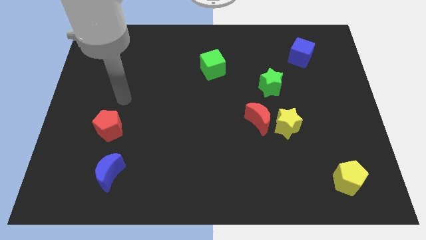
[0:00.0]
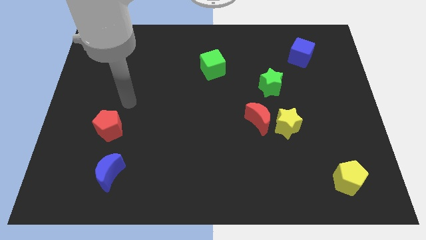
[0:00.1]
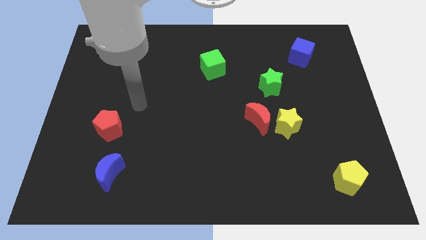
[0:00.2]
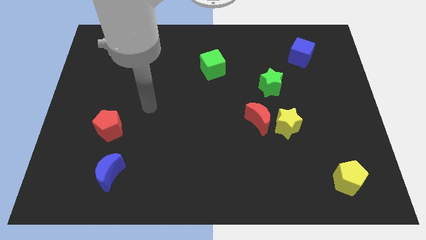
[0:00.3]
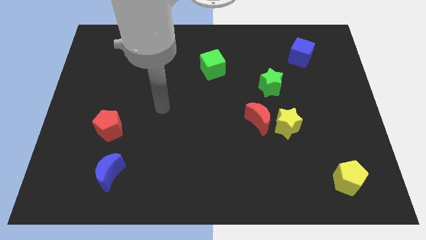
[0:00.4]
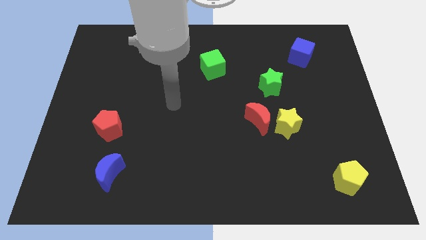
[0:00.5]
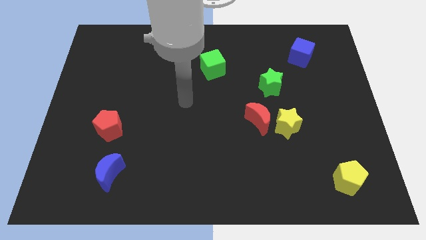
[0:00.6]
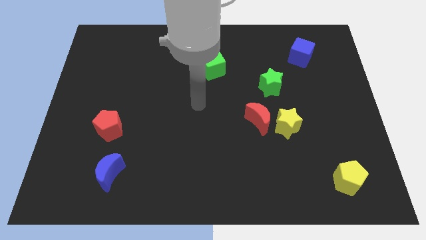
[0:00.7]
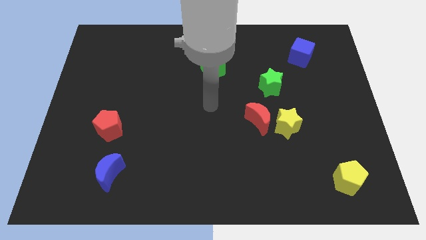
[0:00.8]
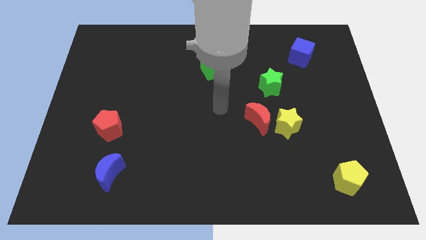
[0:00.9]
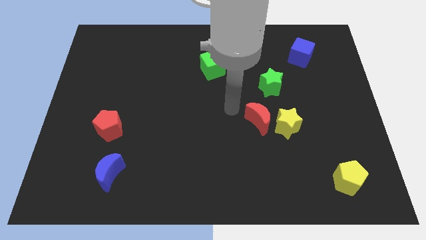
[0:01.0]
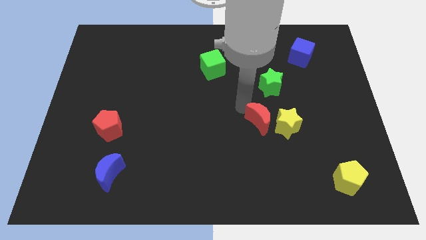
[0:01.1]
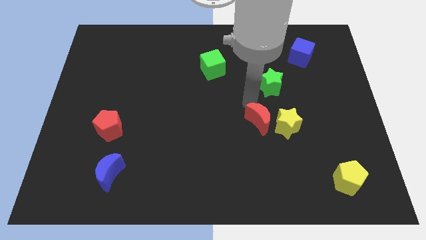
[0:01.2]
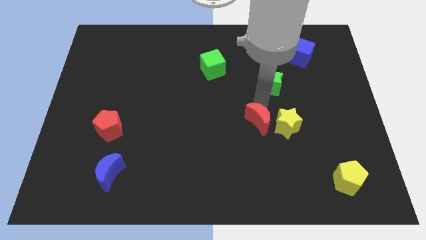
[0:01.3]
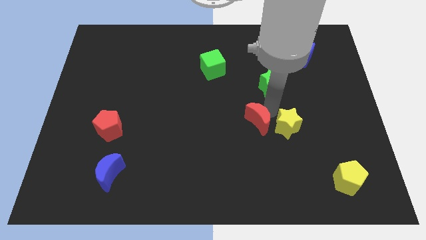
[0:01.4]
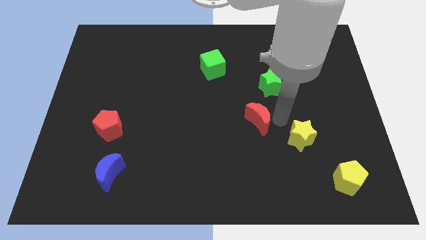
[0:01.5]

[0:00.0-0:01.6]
move the red moon away from the yellow star

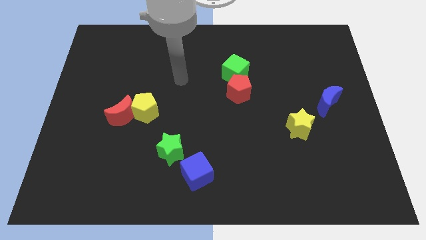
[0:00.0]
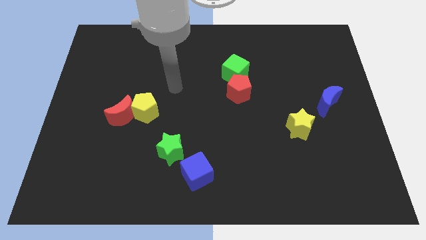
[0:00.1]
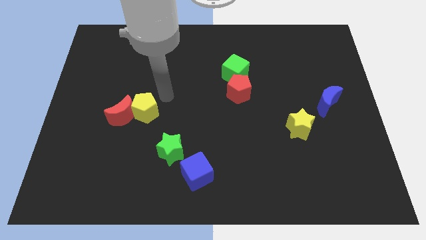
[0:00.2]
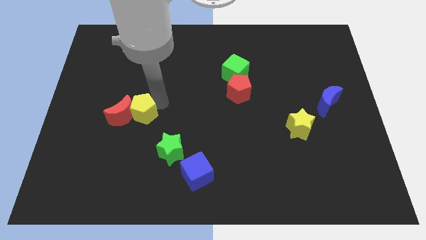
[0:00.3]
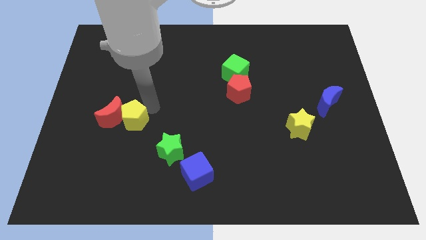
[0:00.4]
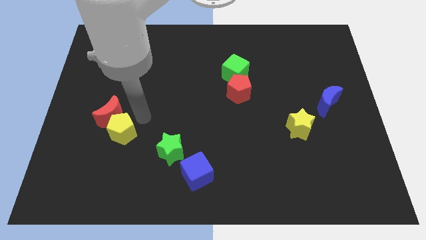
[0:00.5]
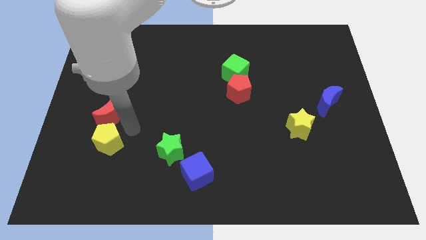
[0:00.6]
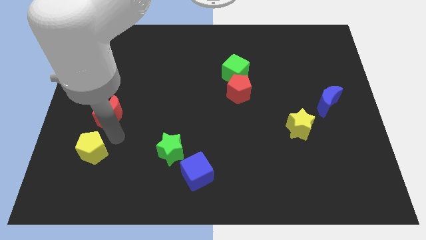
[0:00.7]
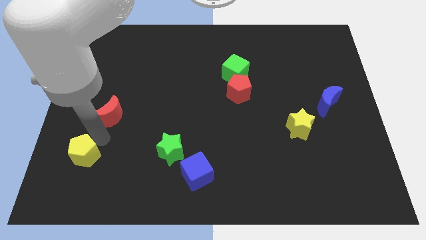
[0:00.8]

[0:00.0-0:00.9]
separate the red moon from the yellow pentagon

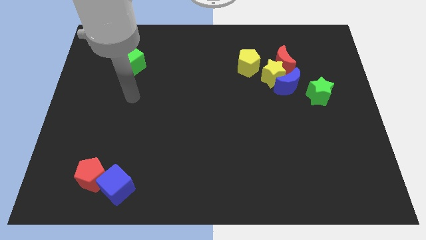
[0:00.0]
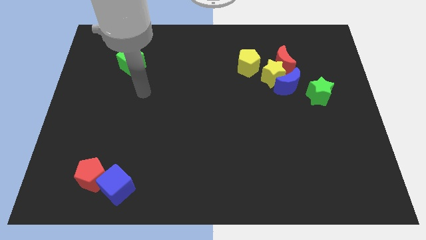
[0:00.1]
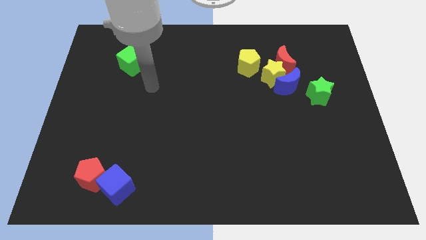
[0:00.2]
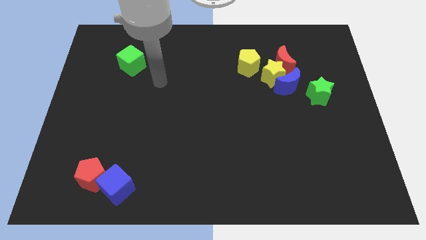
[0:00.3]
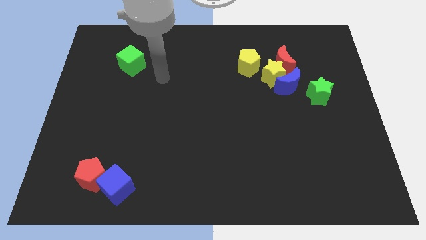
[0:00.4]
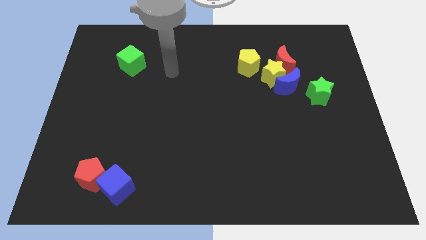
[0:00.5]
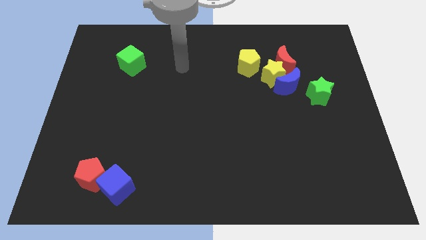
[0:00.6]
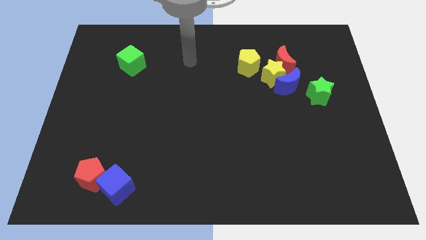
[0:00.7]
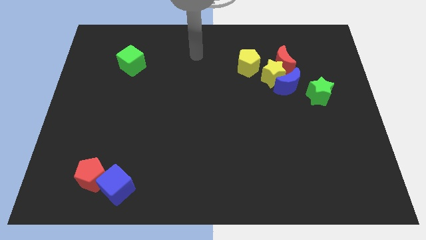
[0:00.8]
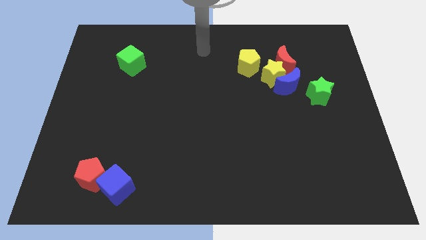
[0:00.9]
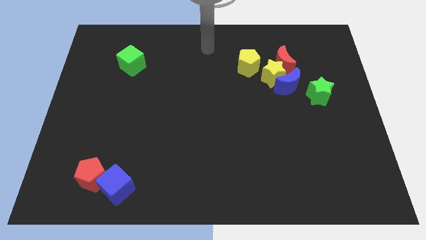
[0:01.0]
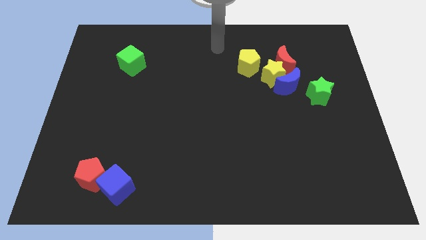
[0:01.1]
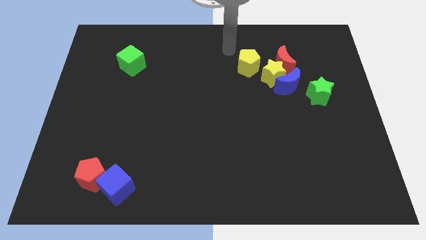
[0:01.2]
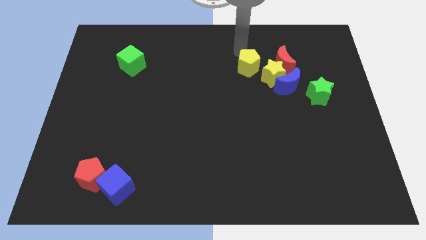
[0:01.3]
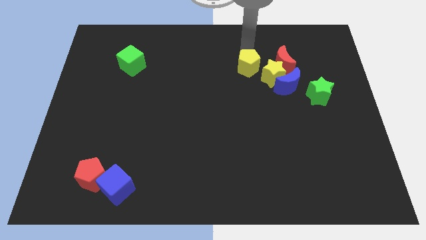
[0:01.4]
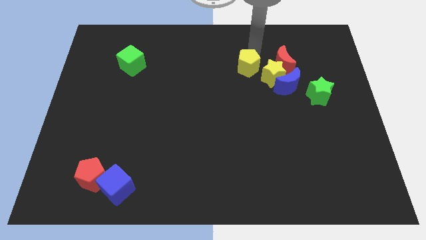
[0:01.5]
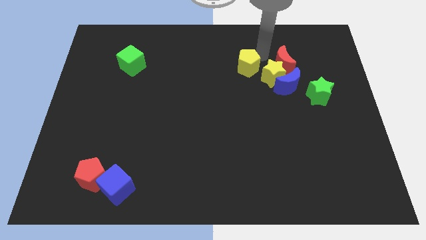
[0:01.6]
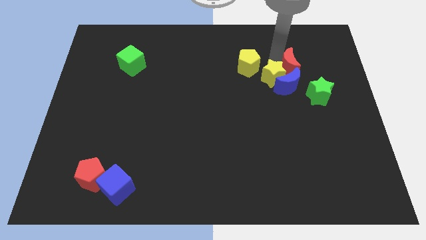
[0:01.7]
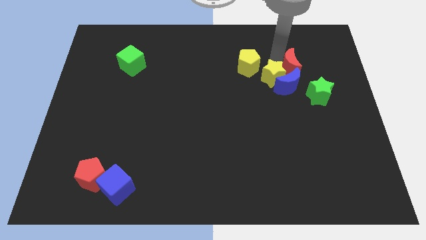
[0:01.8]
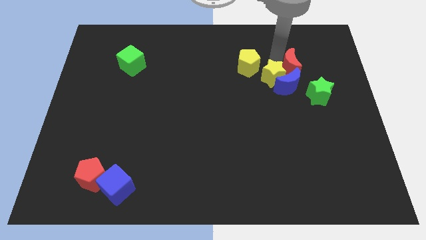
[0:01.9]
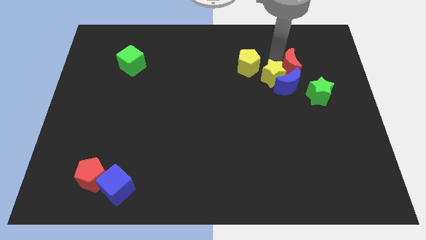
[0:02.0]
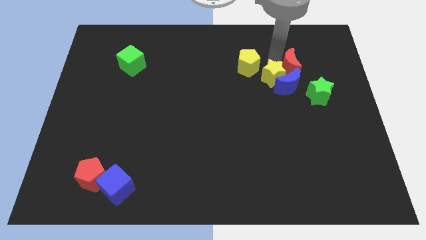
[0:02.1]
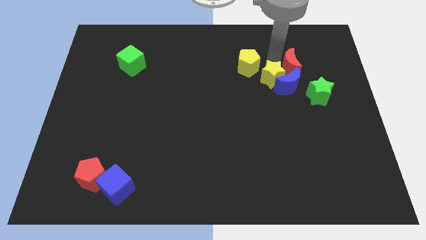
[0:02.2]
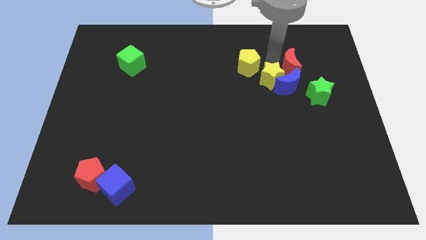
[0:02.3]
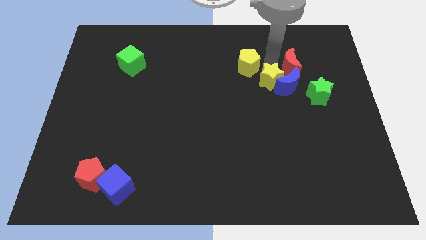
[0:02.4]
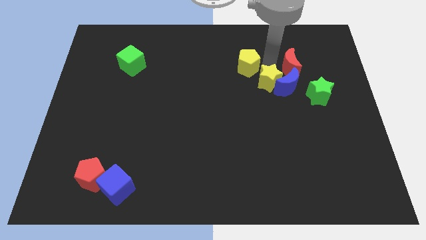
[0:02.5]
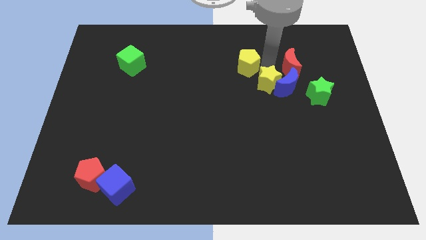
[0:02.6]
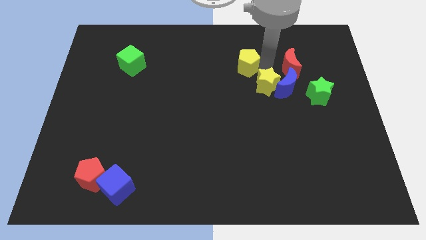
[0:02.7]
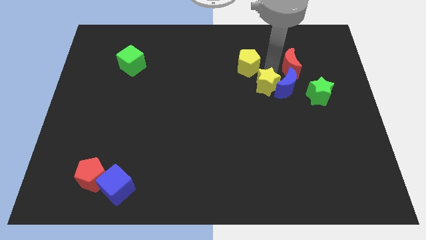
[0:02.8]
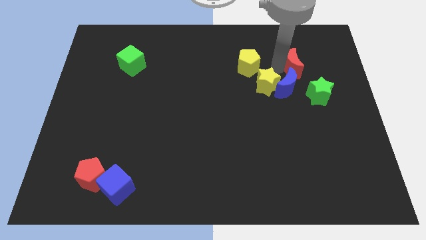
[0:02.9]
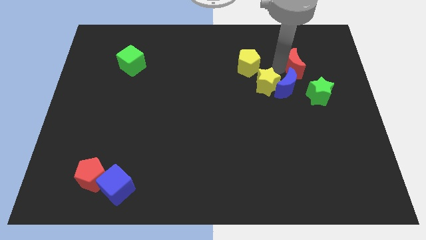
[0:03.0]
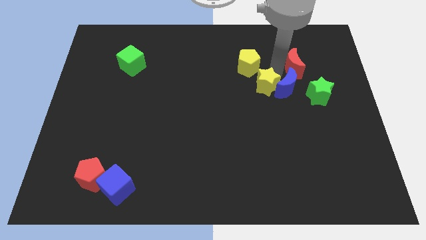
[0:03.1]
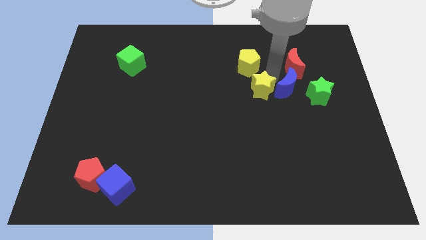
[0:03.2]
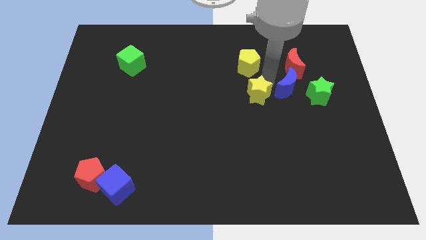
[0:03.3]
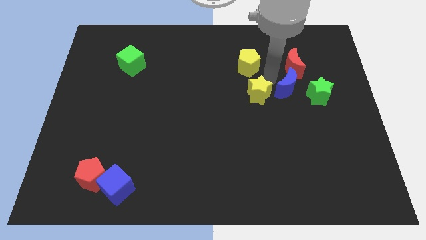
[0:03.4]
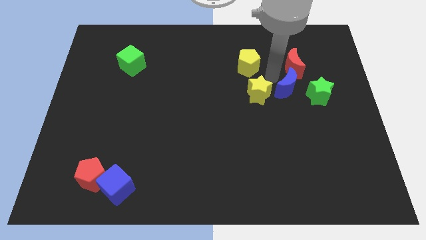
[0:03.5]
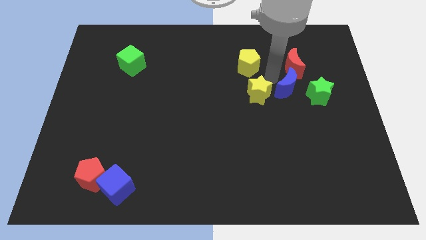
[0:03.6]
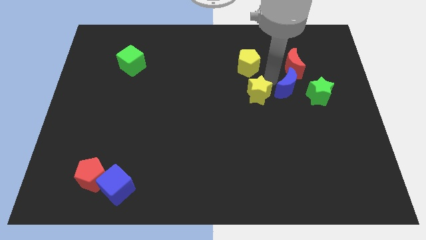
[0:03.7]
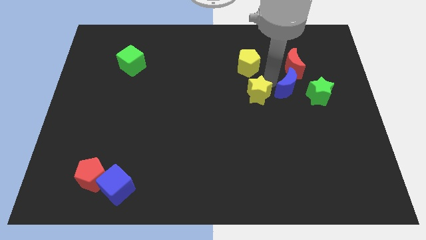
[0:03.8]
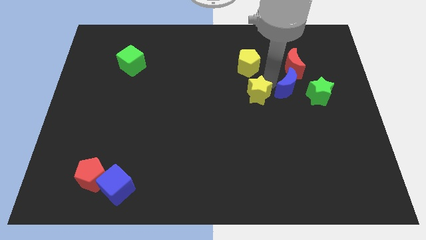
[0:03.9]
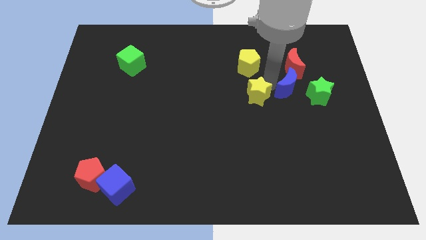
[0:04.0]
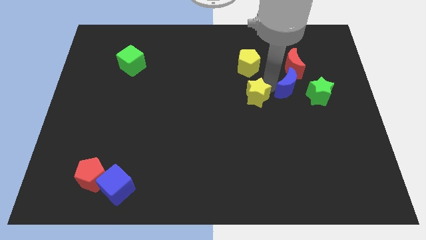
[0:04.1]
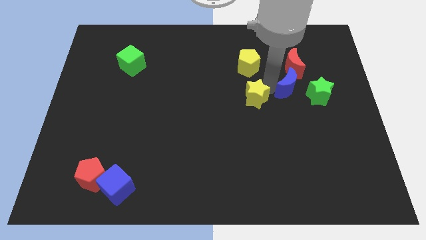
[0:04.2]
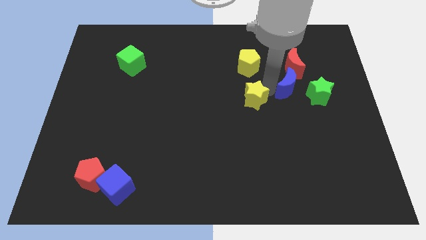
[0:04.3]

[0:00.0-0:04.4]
pull the yellow star apart from the clump

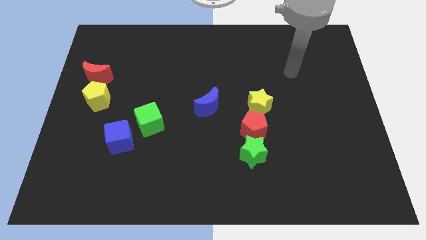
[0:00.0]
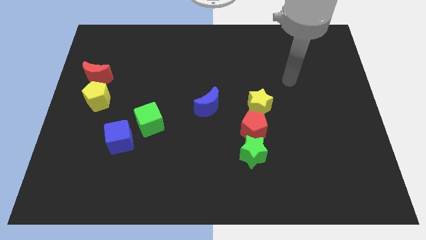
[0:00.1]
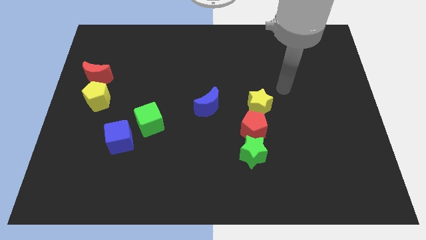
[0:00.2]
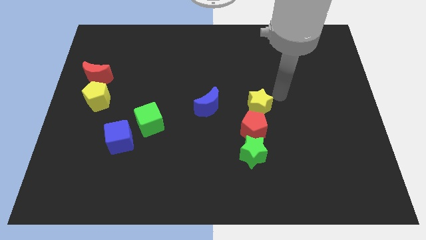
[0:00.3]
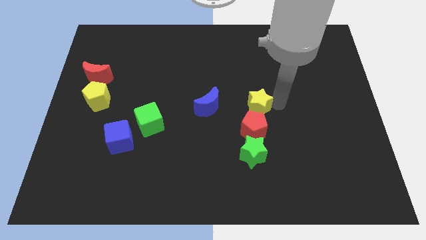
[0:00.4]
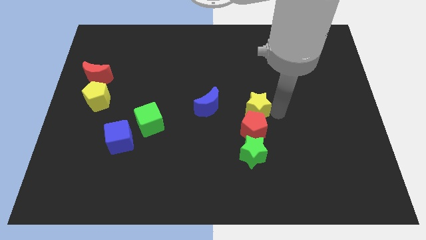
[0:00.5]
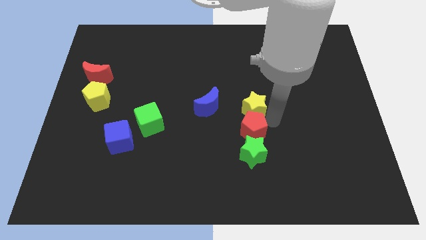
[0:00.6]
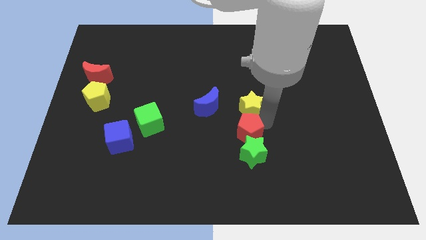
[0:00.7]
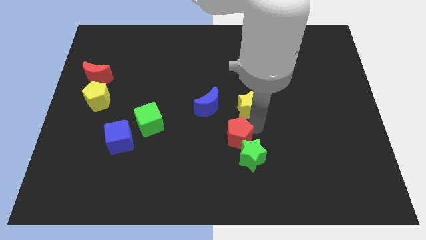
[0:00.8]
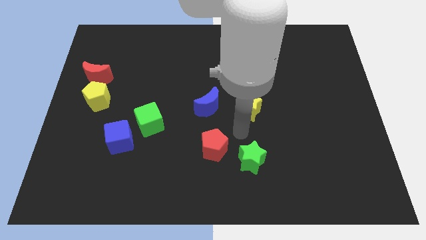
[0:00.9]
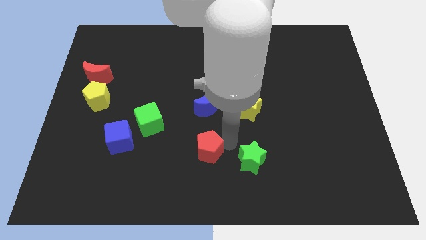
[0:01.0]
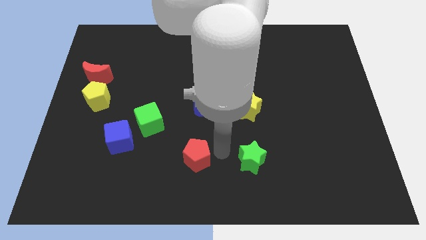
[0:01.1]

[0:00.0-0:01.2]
pull the green star apart from the red pentagon

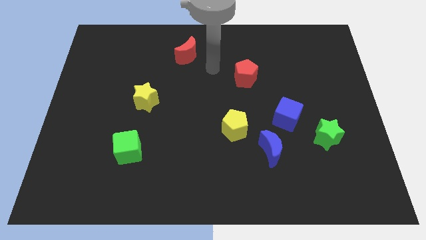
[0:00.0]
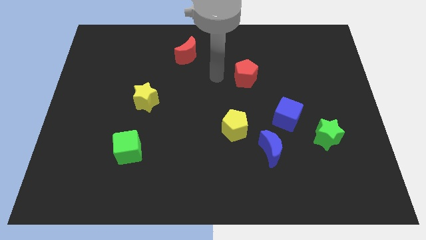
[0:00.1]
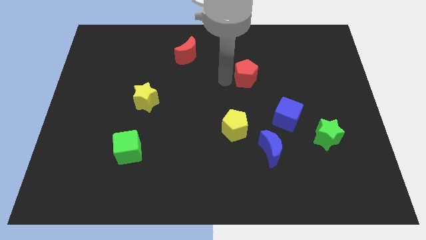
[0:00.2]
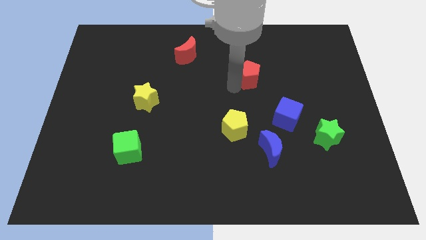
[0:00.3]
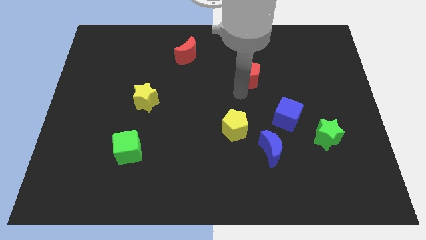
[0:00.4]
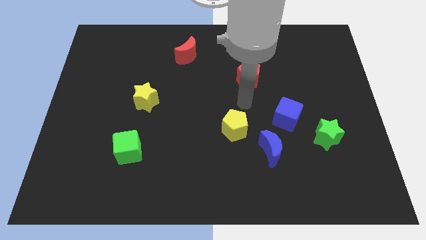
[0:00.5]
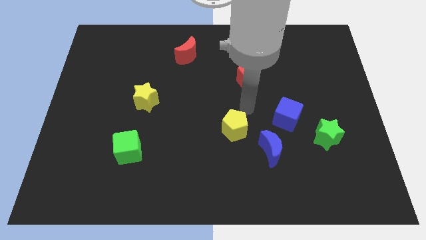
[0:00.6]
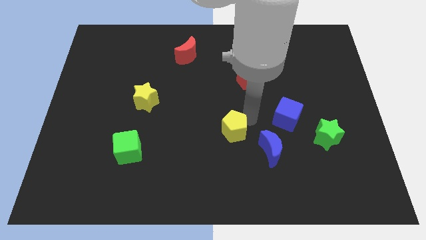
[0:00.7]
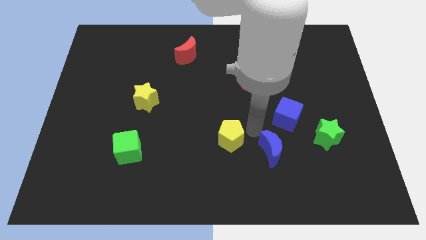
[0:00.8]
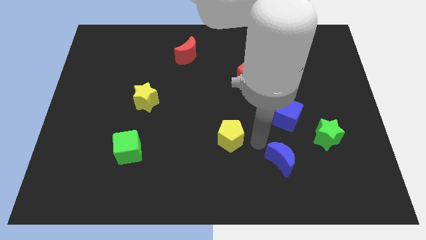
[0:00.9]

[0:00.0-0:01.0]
pull the yellow pentagon apart from the blue moon

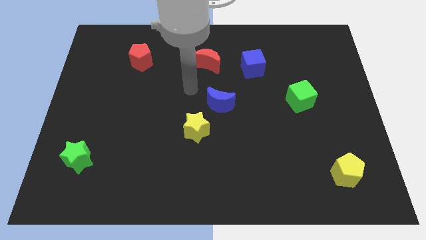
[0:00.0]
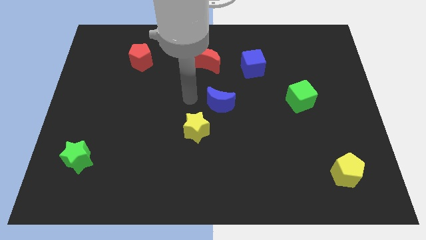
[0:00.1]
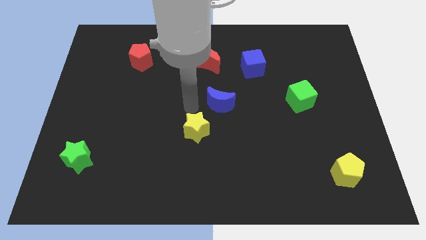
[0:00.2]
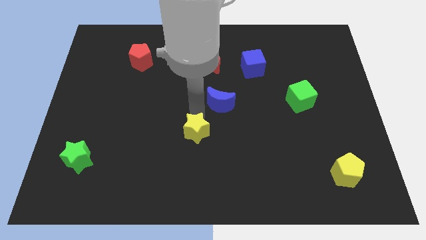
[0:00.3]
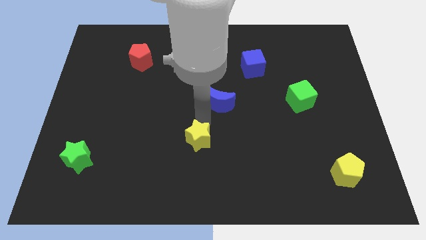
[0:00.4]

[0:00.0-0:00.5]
move the blue moon away from the yellow star
